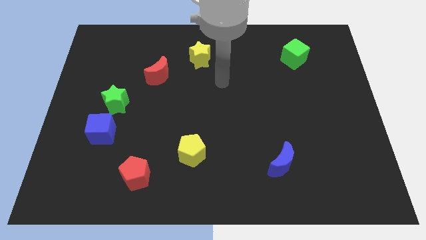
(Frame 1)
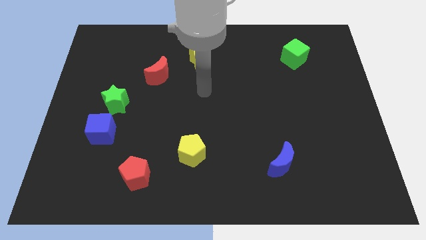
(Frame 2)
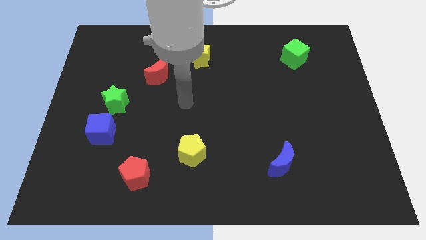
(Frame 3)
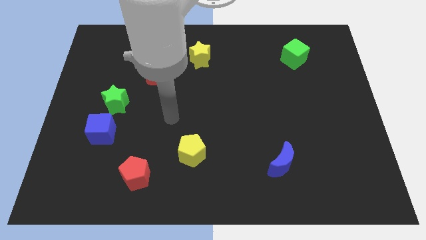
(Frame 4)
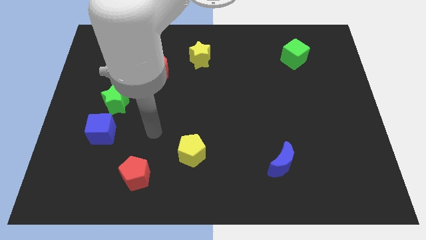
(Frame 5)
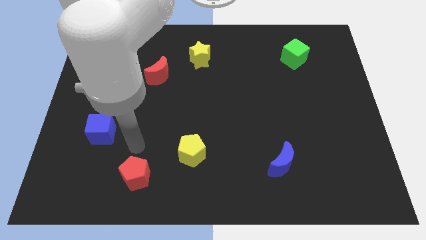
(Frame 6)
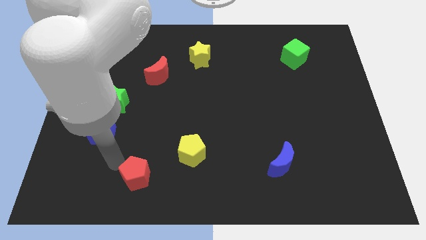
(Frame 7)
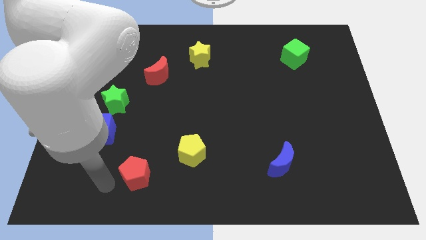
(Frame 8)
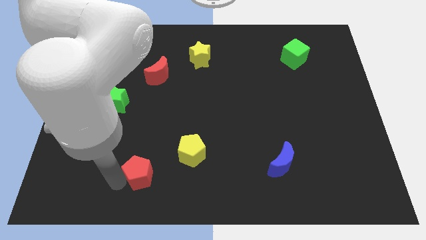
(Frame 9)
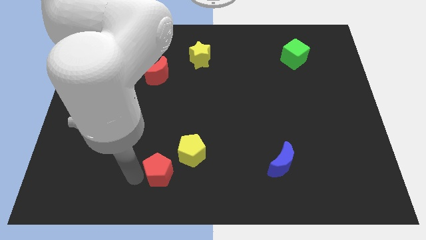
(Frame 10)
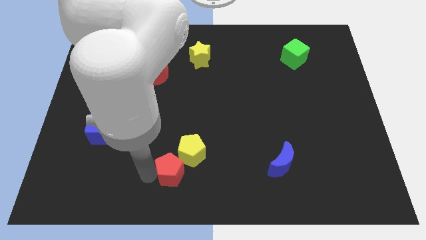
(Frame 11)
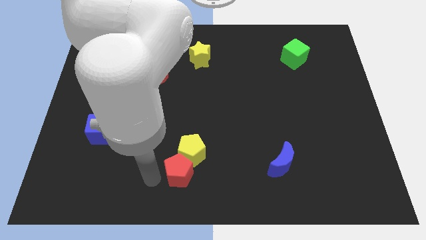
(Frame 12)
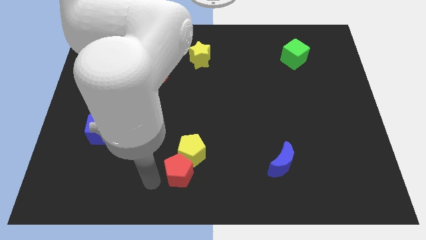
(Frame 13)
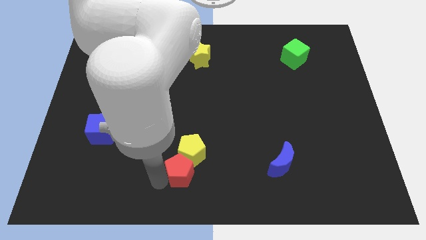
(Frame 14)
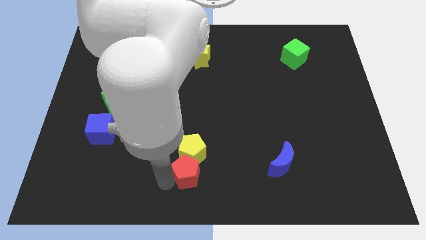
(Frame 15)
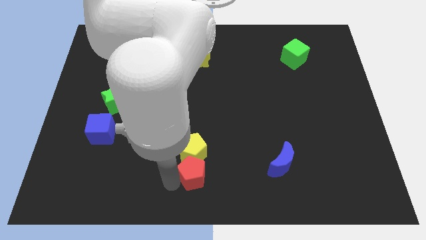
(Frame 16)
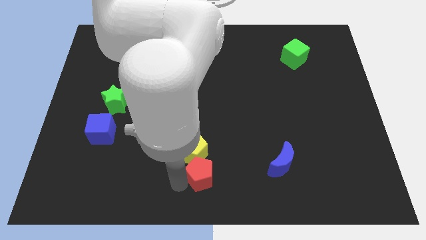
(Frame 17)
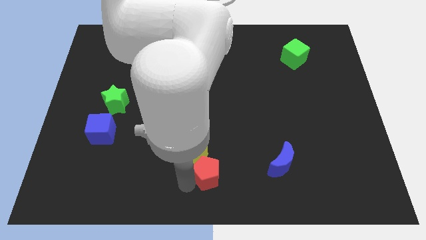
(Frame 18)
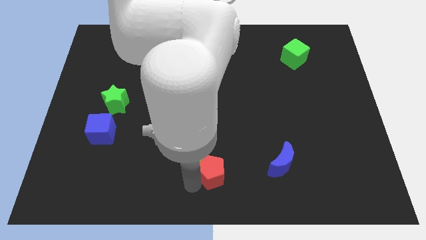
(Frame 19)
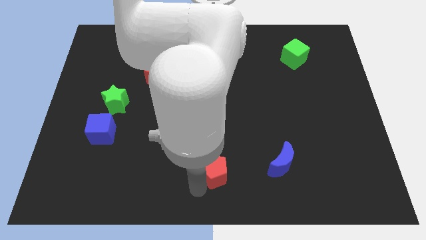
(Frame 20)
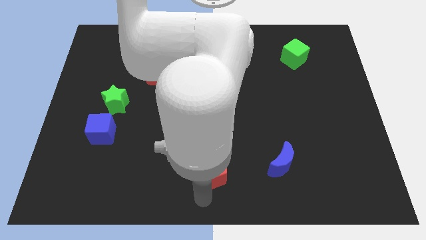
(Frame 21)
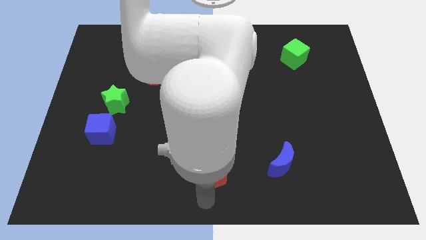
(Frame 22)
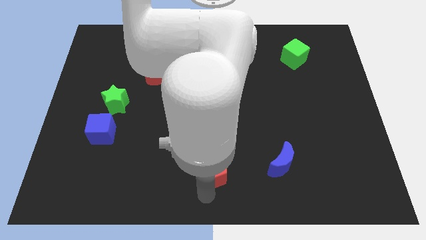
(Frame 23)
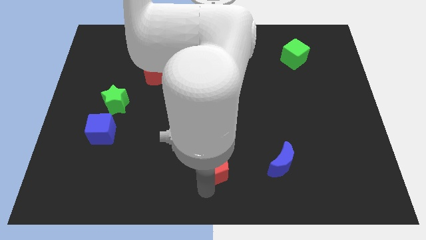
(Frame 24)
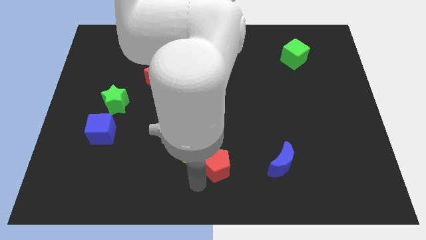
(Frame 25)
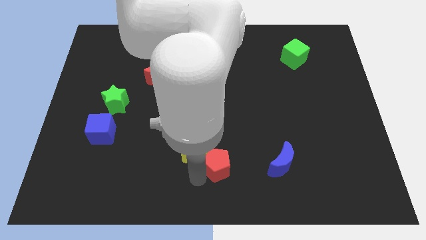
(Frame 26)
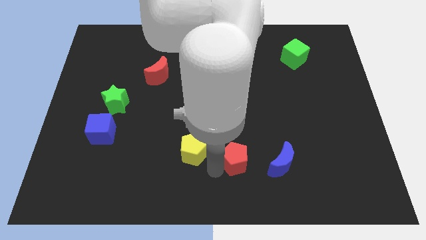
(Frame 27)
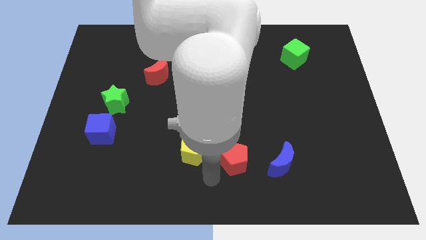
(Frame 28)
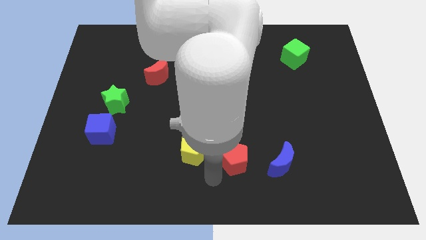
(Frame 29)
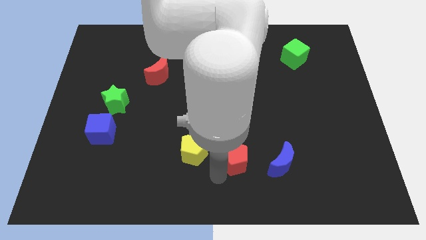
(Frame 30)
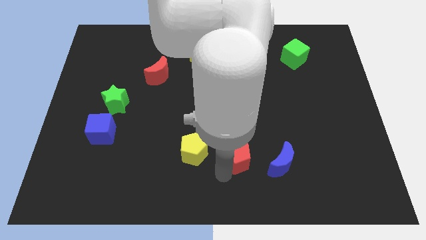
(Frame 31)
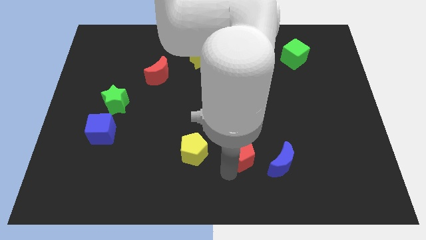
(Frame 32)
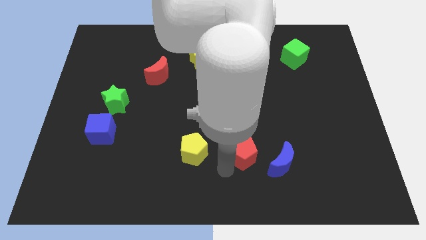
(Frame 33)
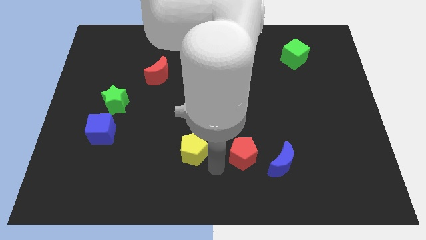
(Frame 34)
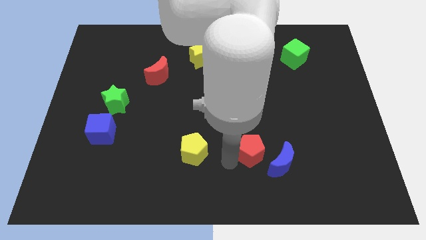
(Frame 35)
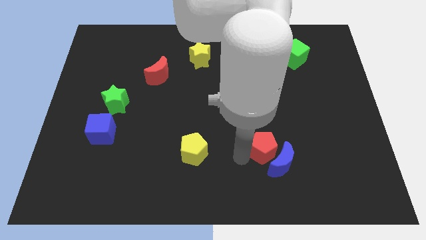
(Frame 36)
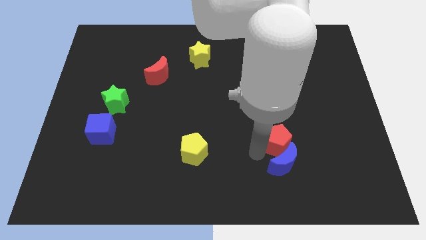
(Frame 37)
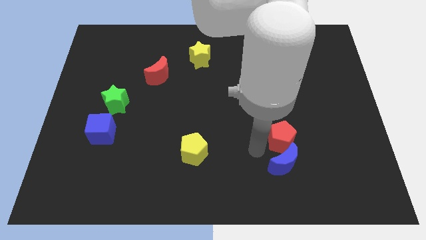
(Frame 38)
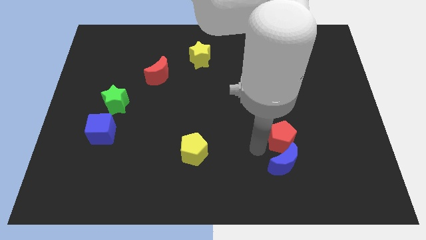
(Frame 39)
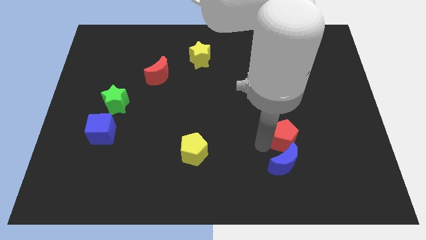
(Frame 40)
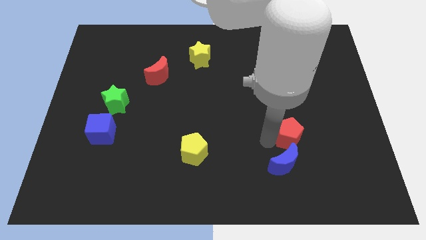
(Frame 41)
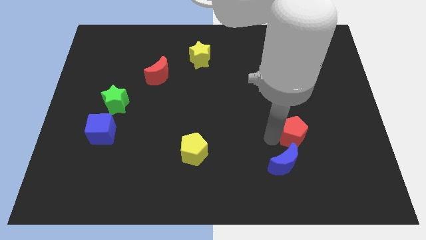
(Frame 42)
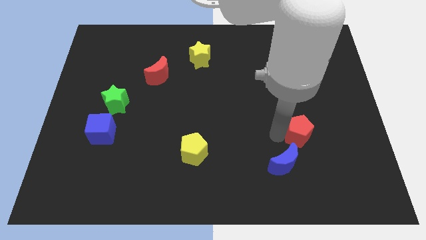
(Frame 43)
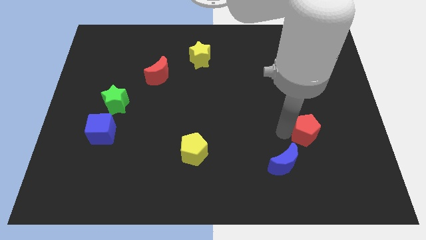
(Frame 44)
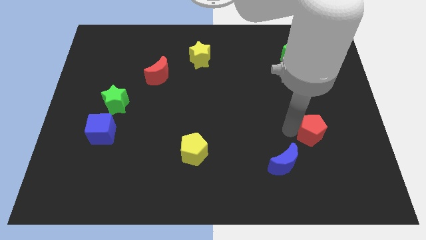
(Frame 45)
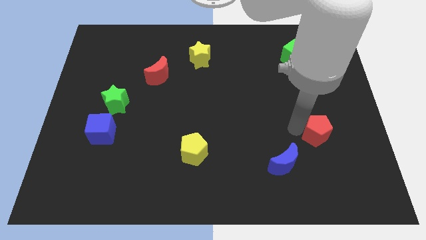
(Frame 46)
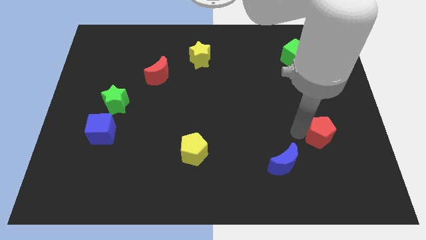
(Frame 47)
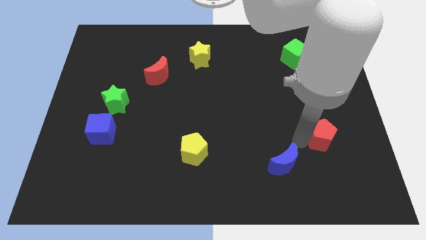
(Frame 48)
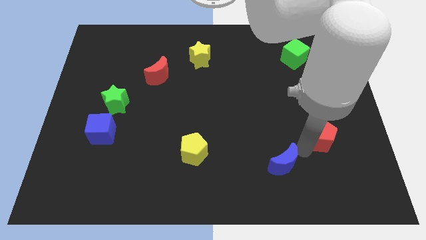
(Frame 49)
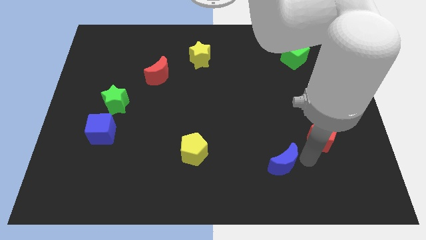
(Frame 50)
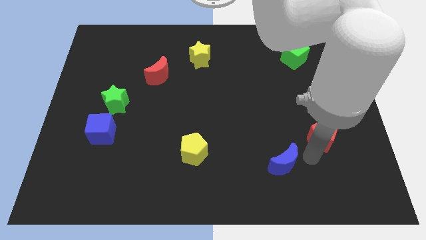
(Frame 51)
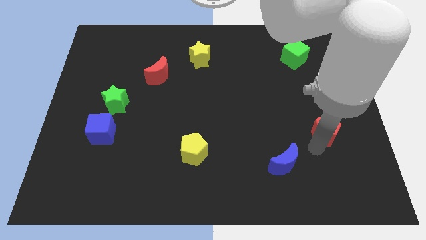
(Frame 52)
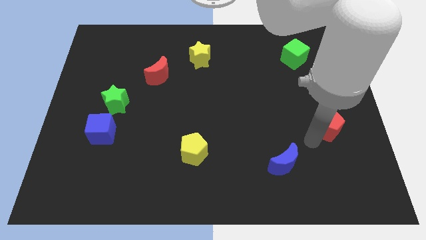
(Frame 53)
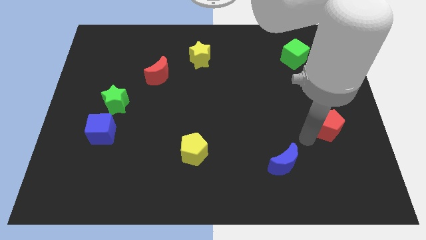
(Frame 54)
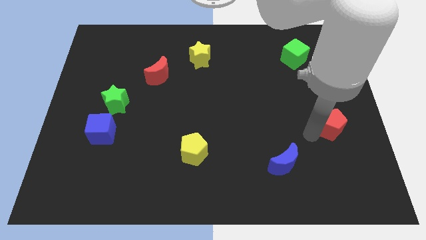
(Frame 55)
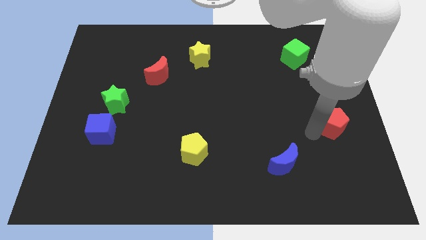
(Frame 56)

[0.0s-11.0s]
push the red pentagon to the center right

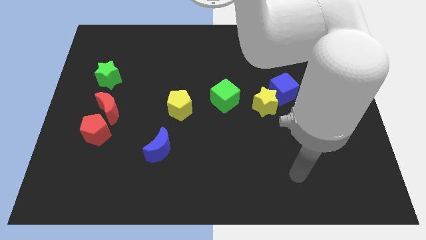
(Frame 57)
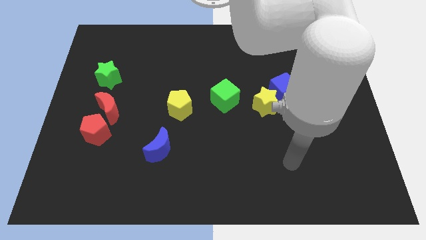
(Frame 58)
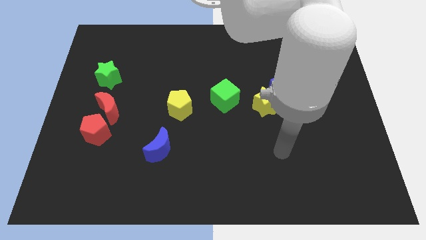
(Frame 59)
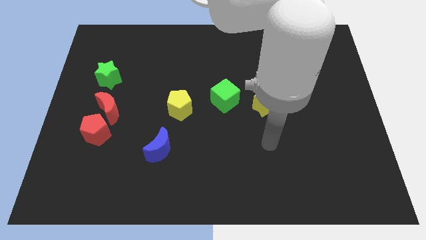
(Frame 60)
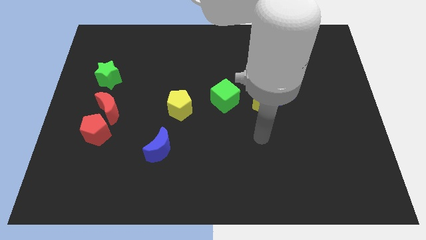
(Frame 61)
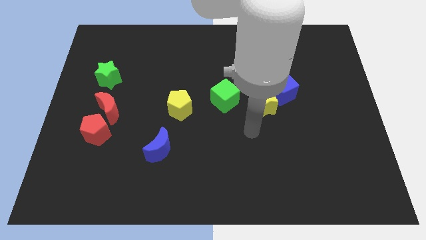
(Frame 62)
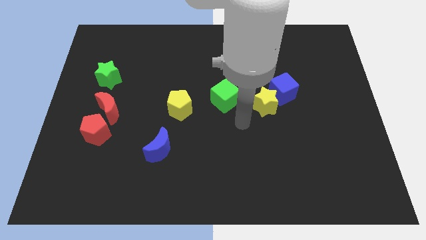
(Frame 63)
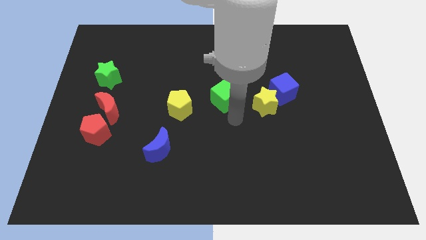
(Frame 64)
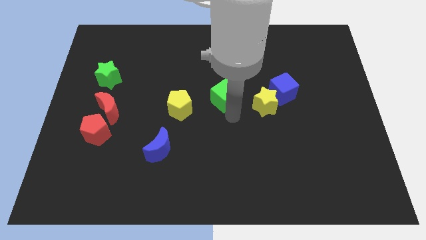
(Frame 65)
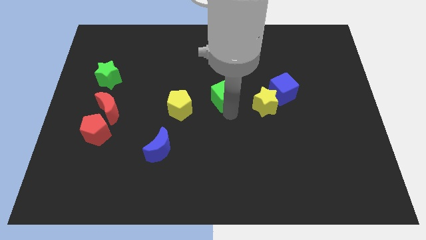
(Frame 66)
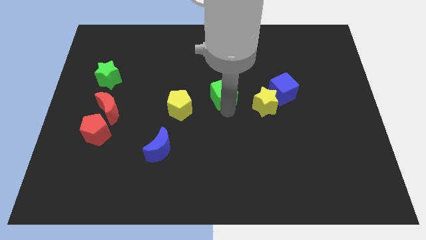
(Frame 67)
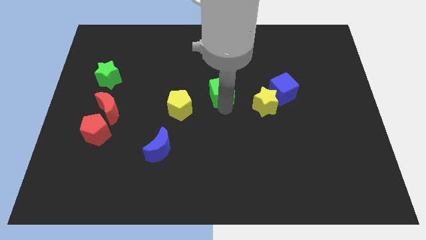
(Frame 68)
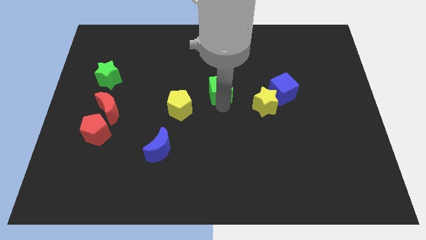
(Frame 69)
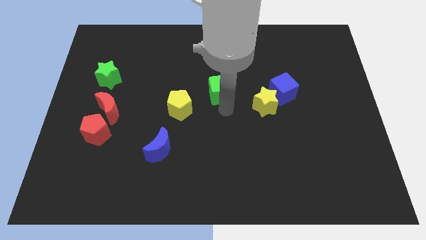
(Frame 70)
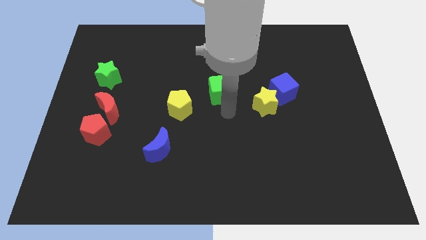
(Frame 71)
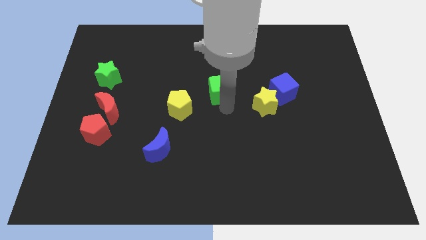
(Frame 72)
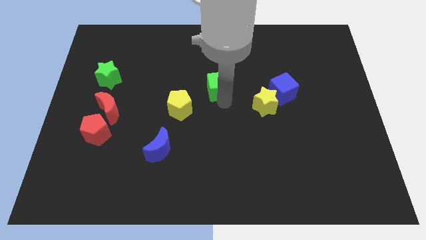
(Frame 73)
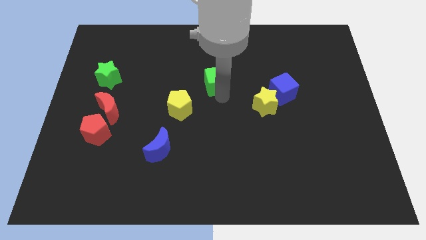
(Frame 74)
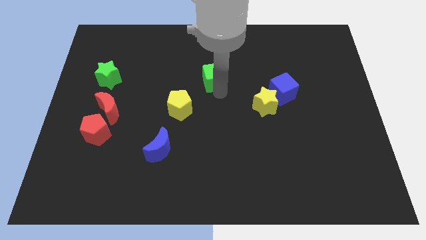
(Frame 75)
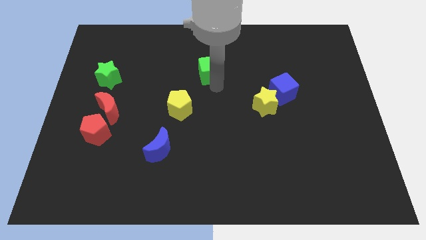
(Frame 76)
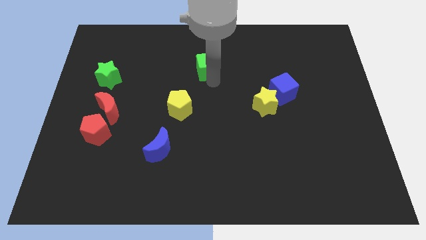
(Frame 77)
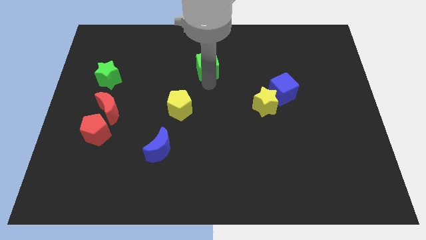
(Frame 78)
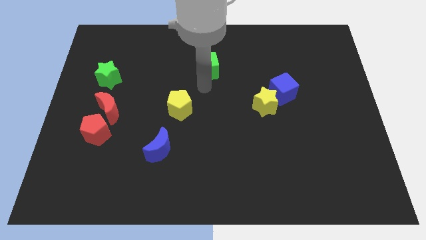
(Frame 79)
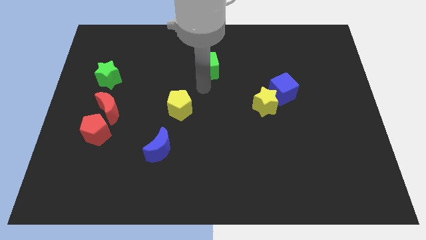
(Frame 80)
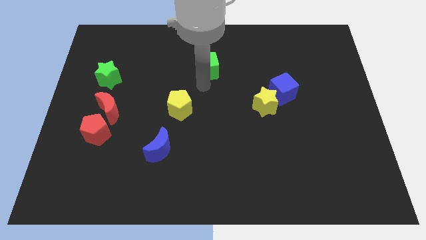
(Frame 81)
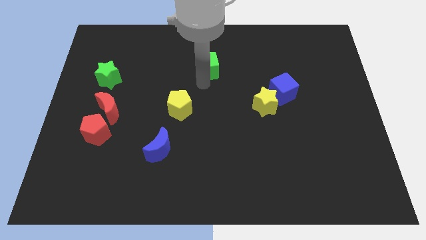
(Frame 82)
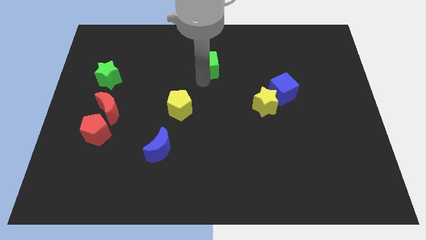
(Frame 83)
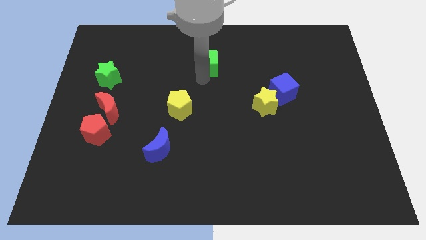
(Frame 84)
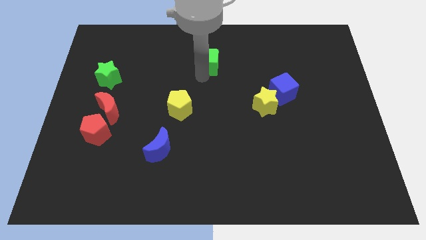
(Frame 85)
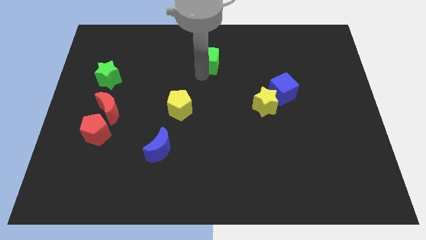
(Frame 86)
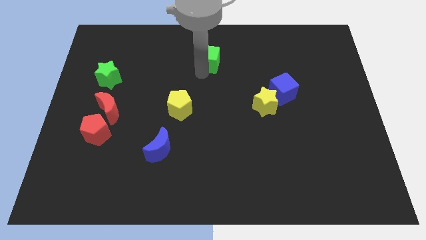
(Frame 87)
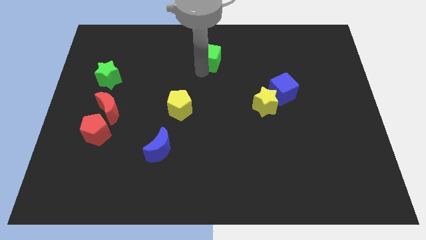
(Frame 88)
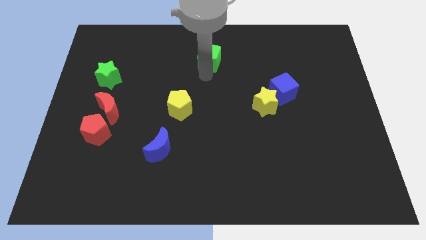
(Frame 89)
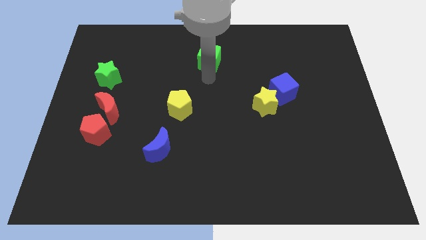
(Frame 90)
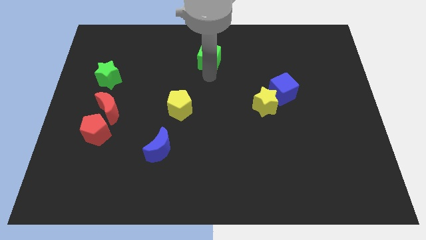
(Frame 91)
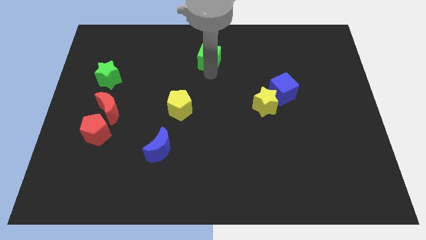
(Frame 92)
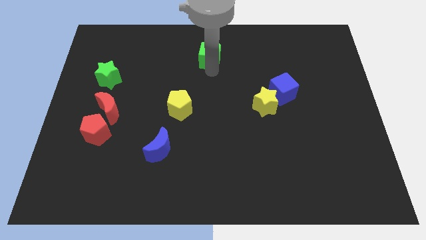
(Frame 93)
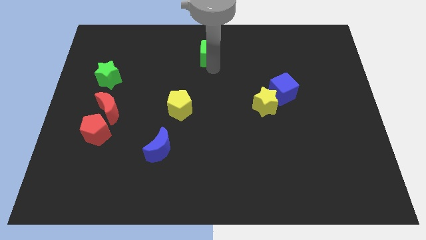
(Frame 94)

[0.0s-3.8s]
put the green cube to the top side
